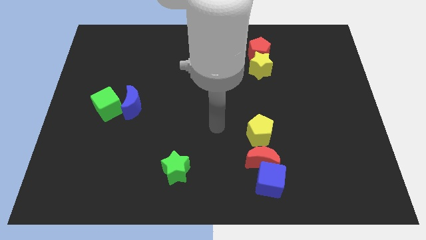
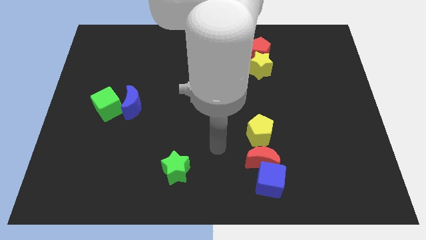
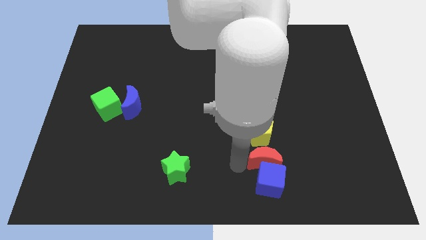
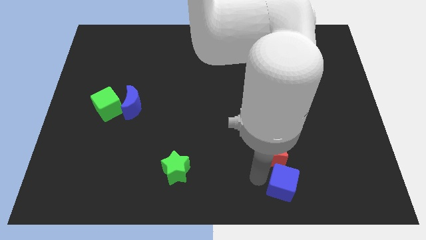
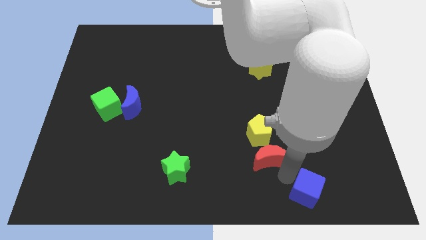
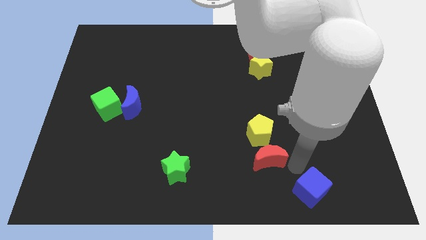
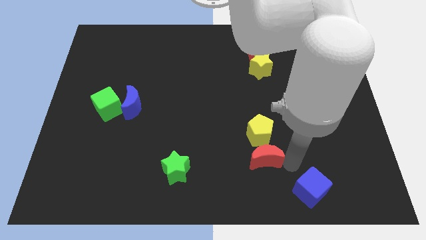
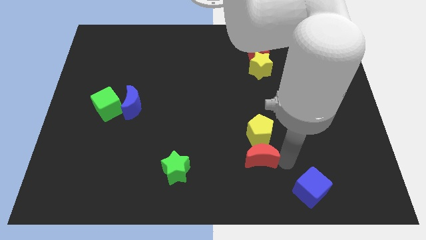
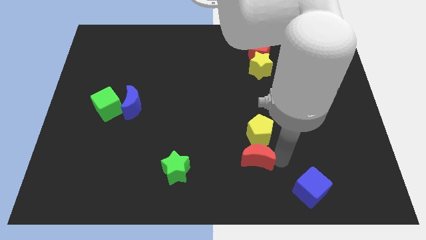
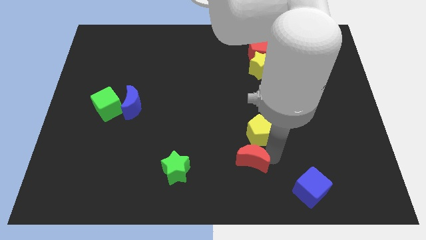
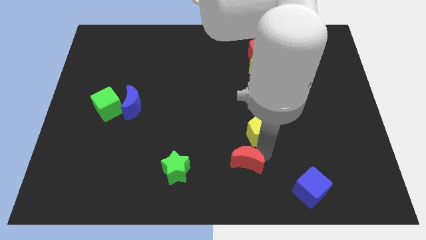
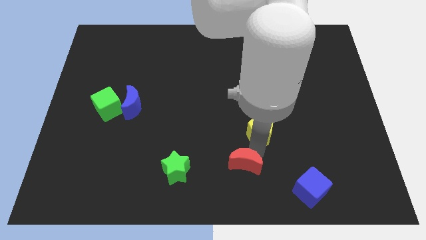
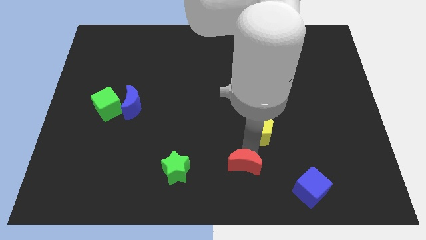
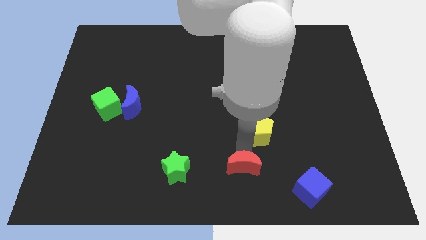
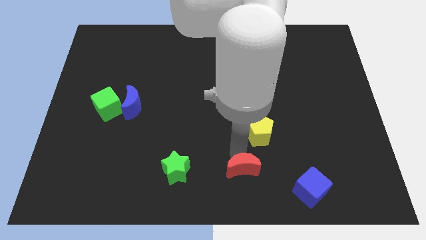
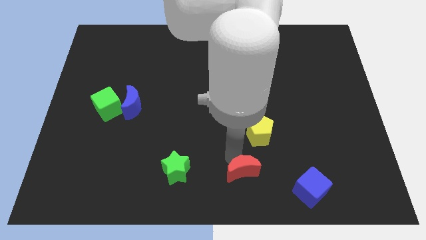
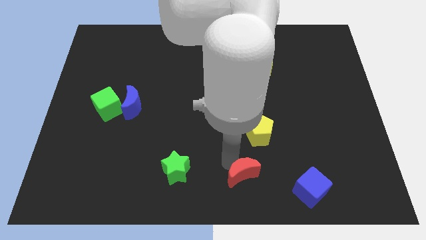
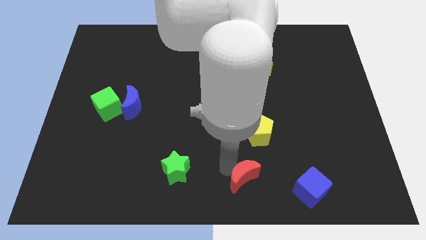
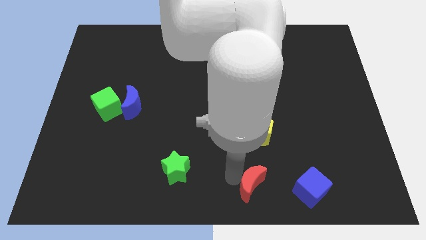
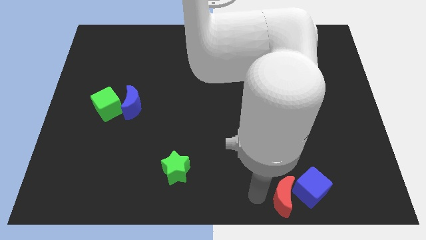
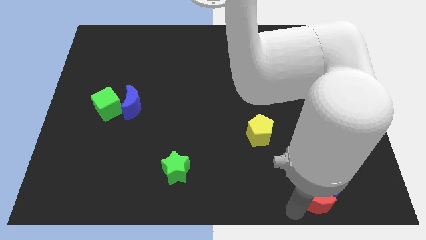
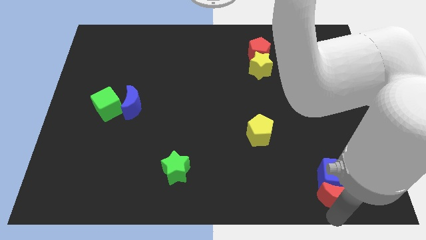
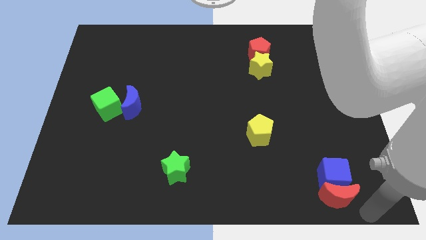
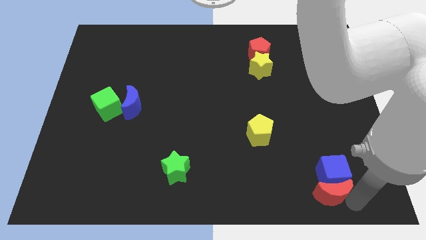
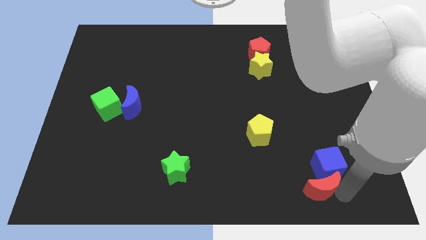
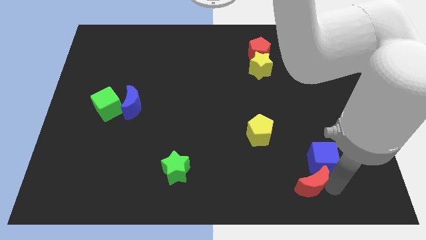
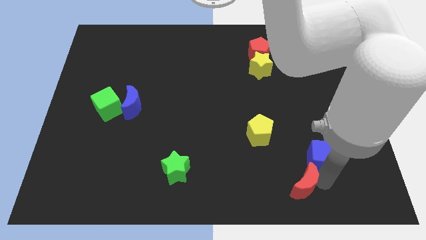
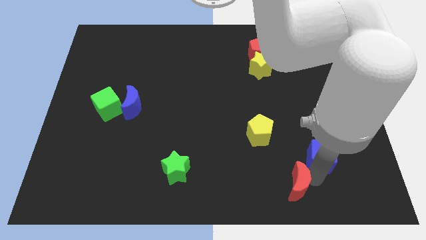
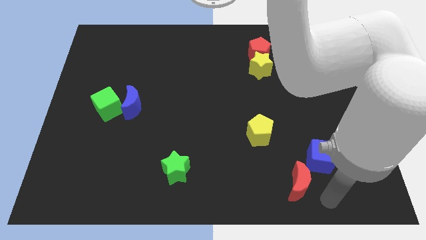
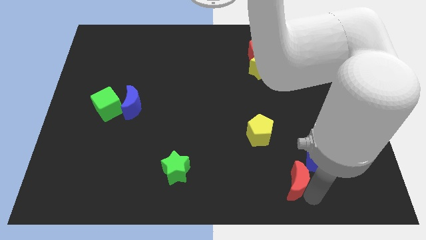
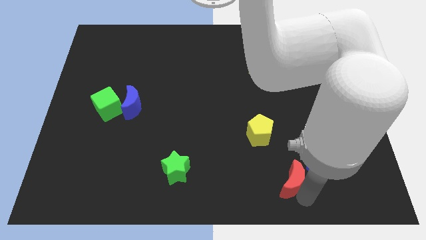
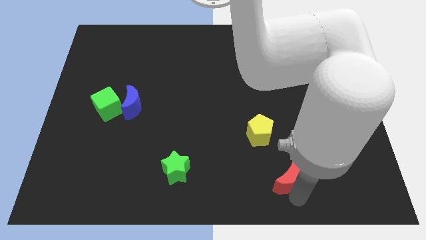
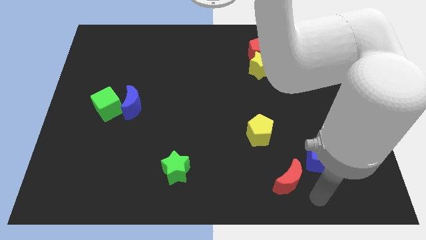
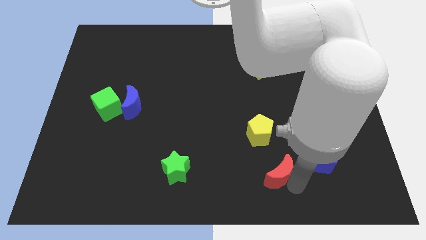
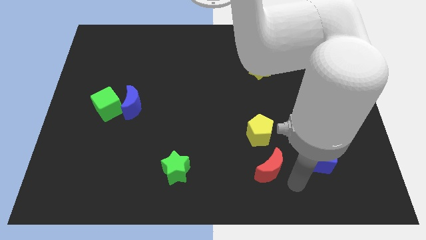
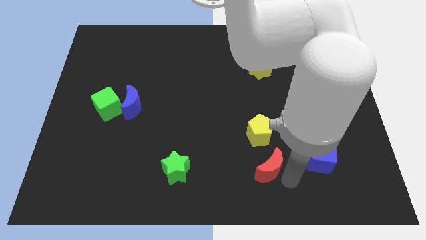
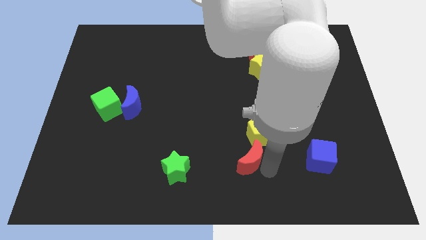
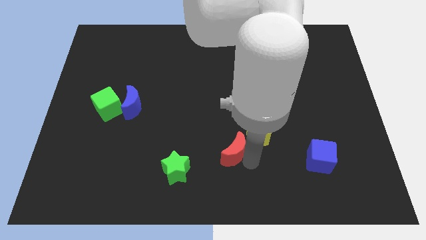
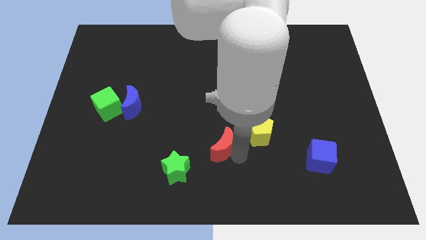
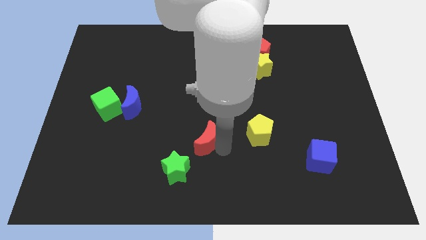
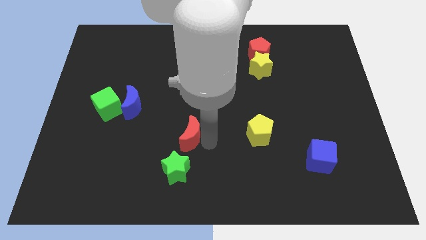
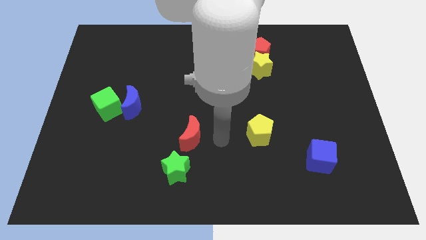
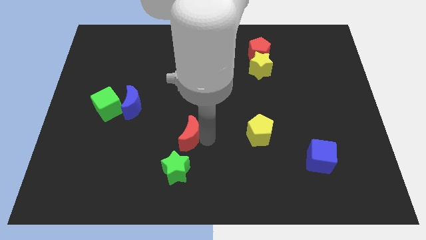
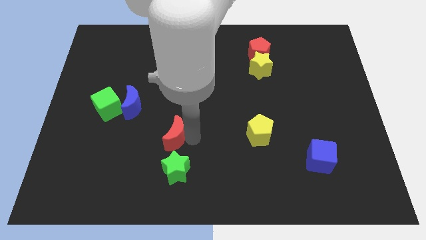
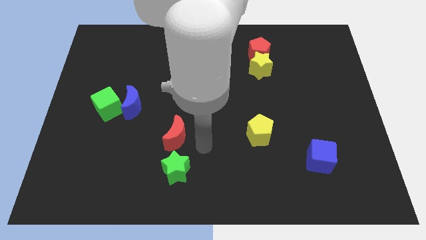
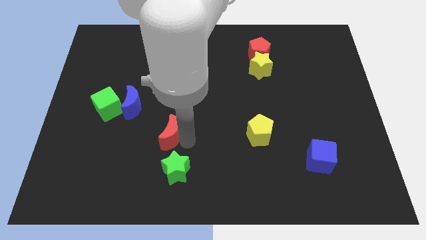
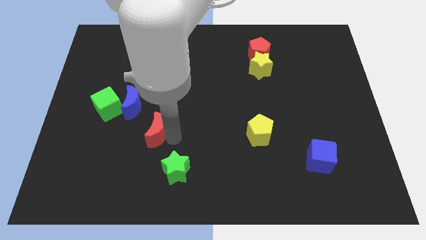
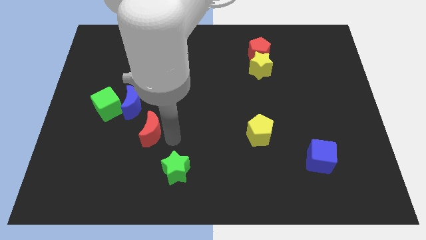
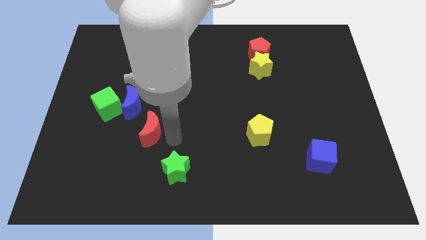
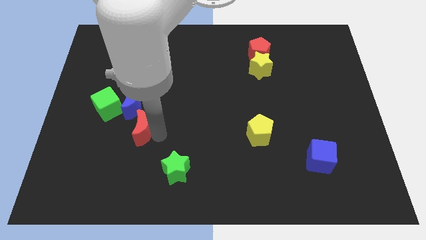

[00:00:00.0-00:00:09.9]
move the red moon to the bottom right of the green cube

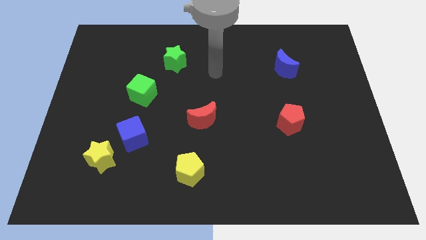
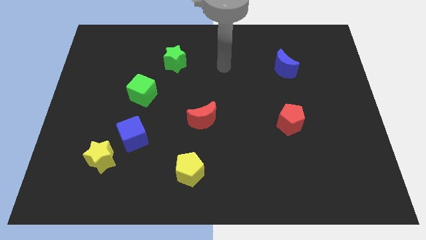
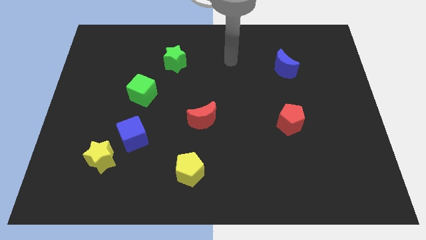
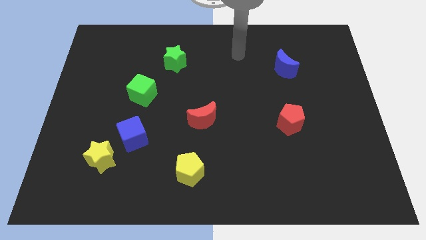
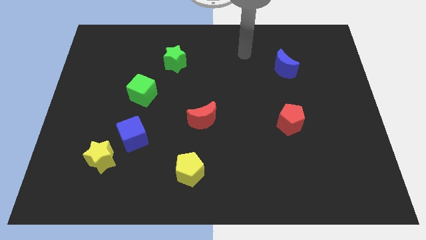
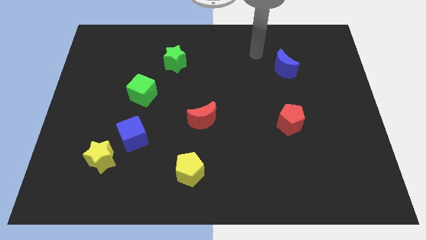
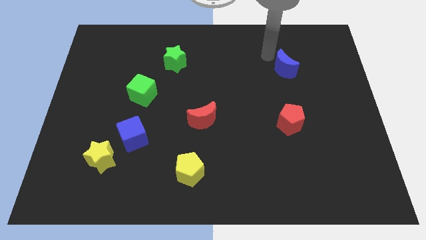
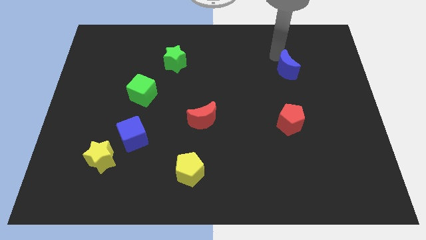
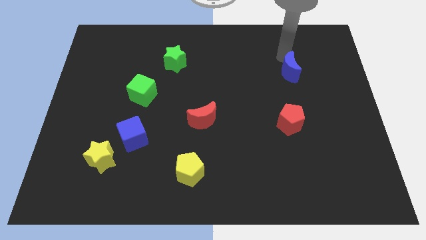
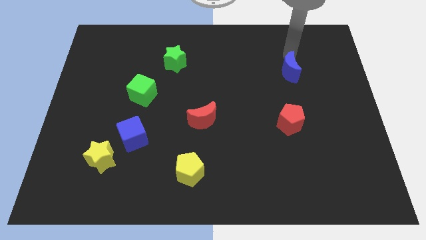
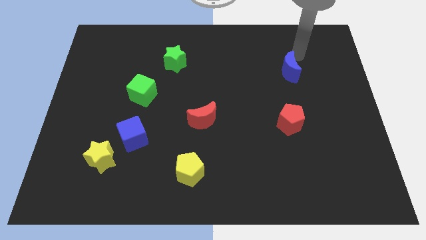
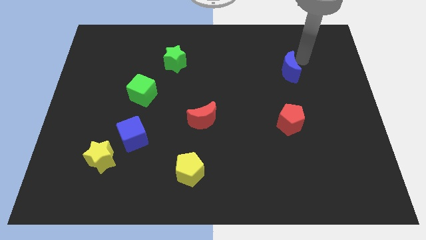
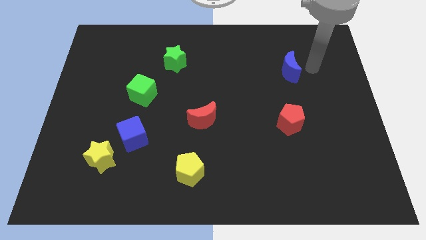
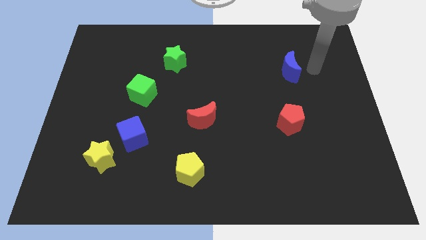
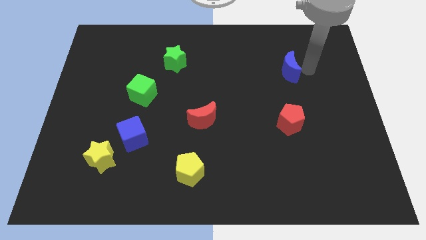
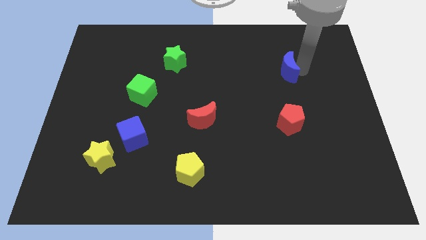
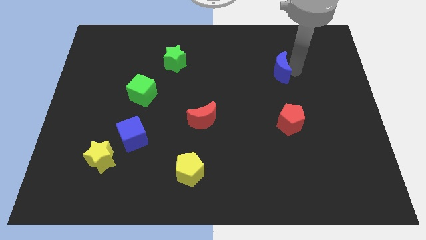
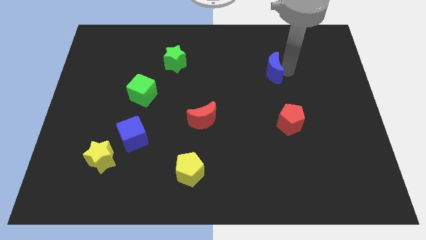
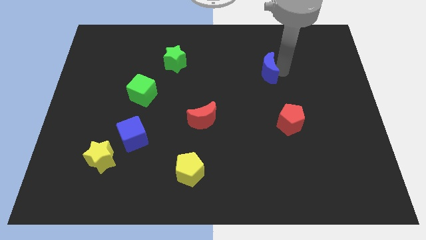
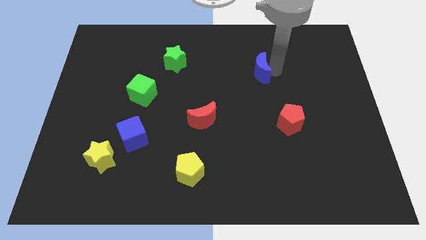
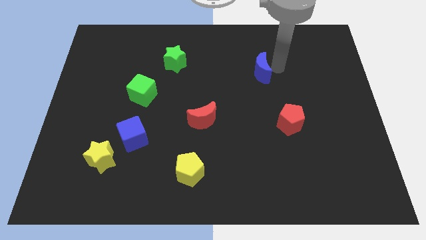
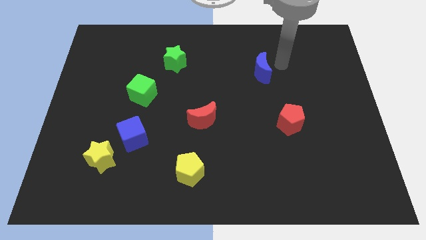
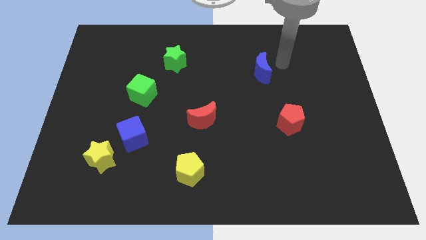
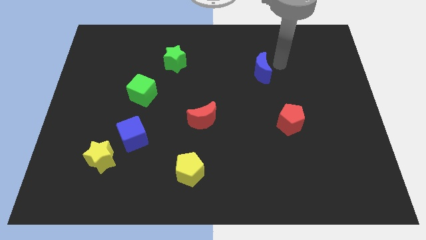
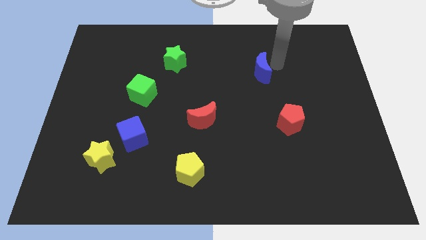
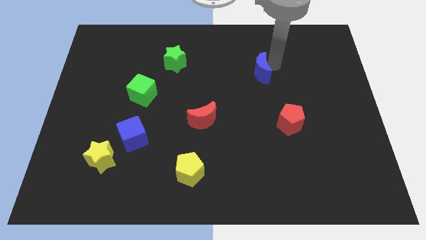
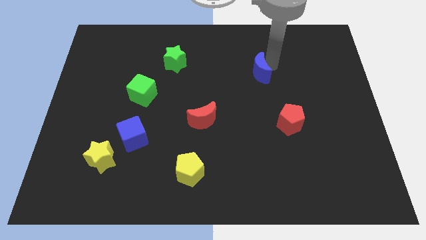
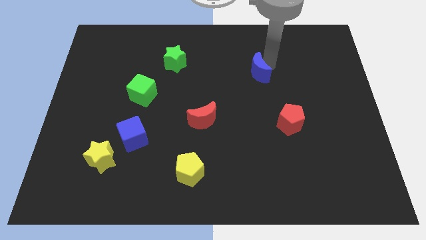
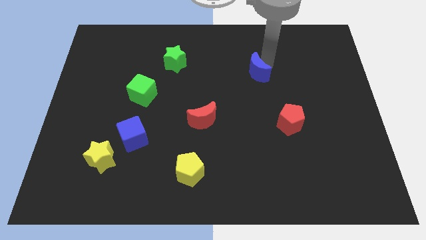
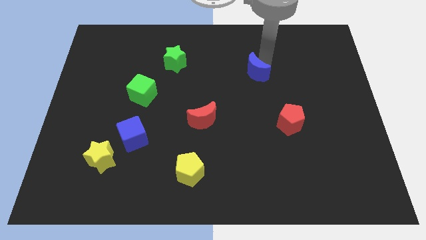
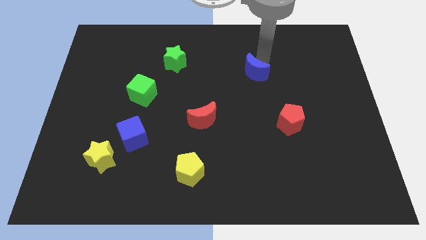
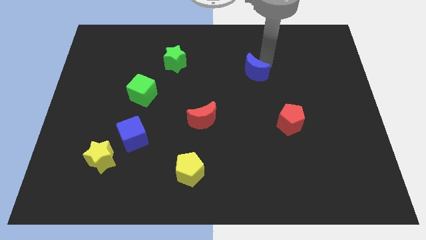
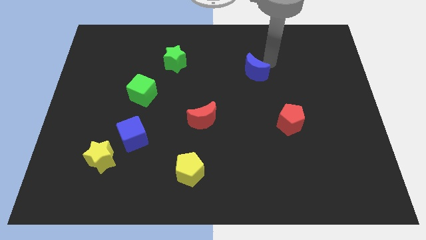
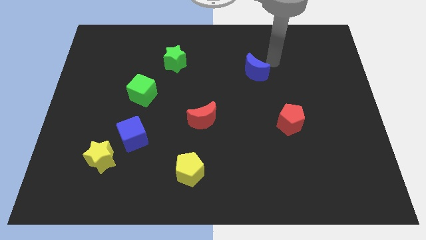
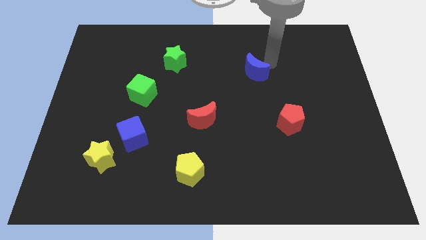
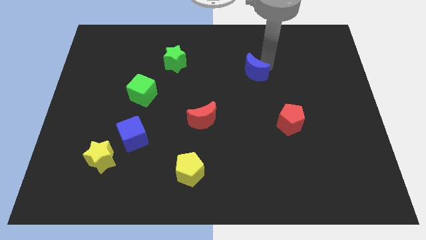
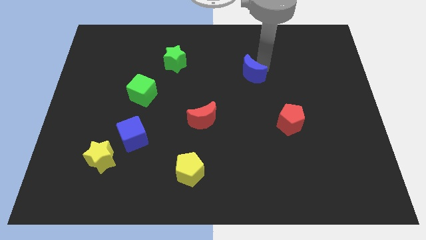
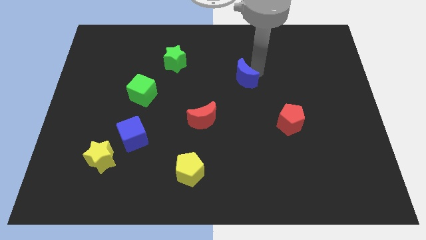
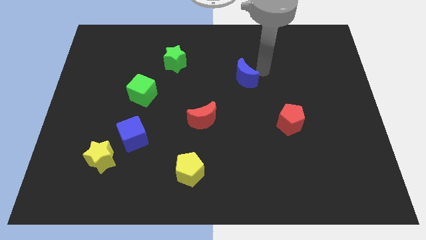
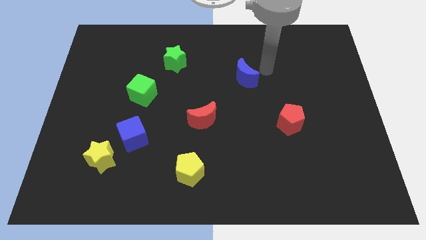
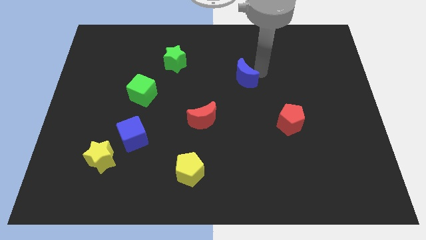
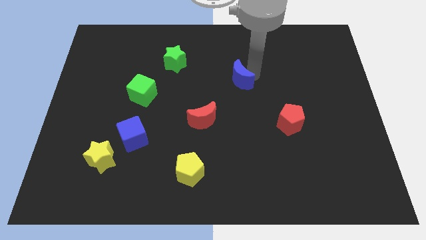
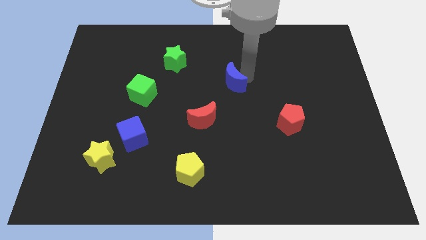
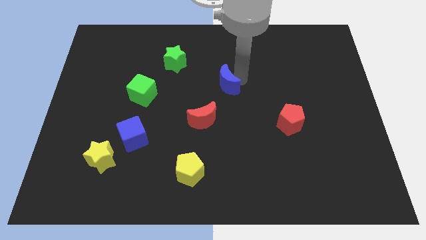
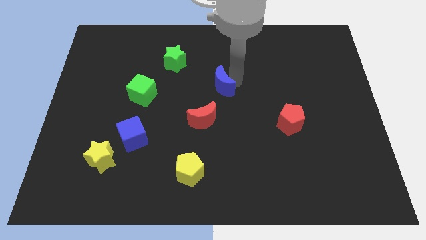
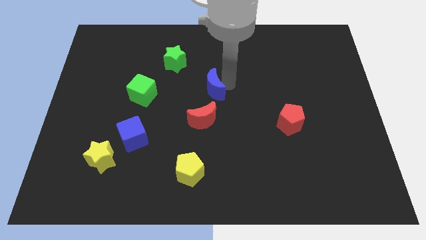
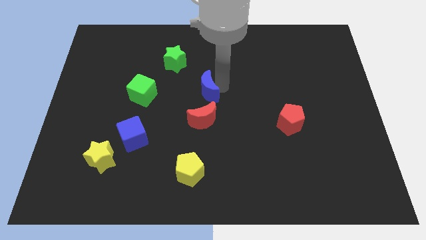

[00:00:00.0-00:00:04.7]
move the blue moon right of the green cube
